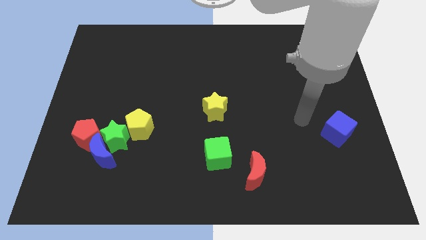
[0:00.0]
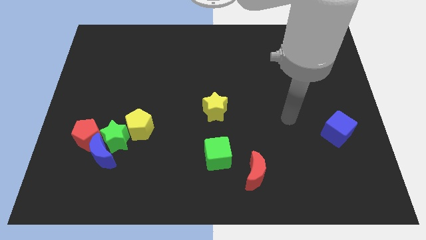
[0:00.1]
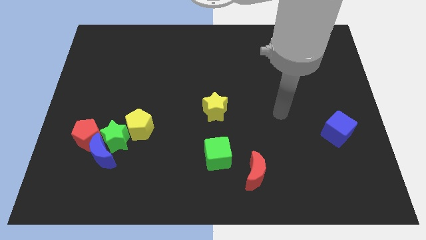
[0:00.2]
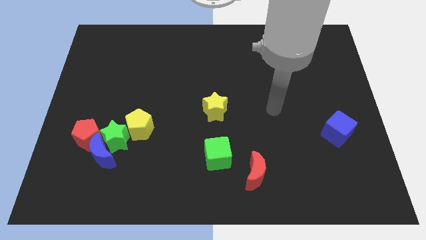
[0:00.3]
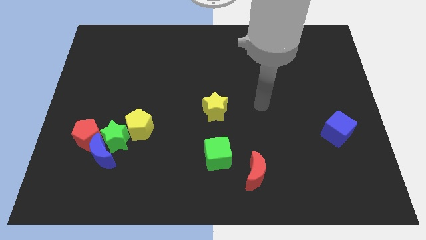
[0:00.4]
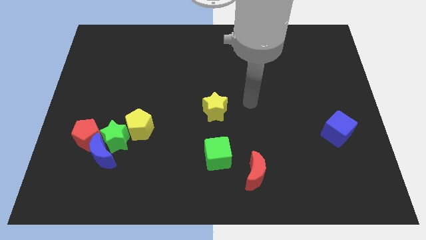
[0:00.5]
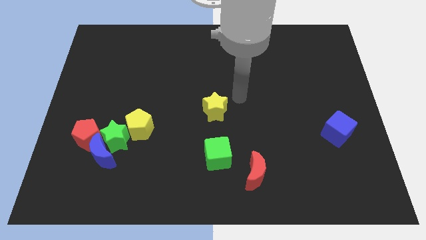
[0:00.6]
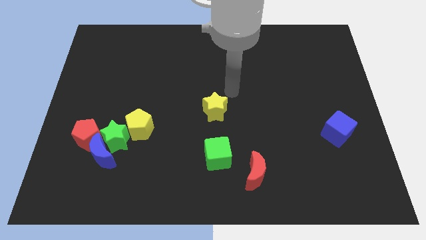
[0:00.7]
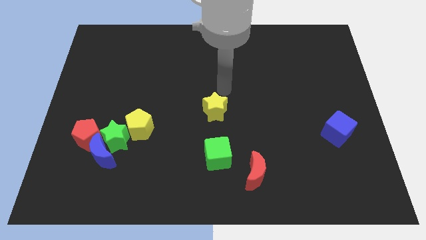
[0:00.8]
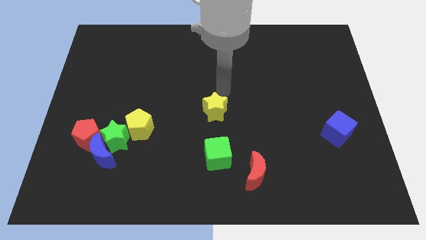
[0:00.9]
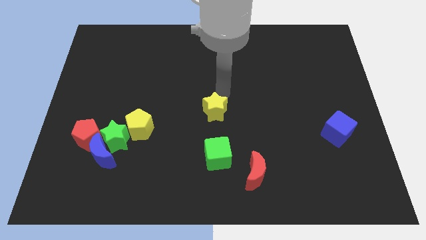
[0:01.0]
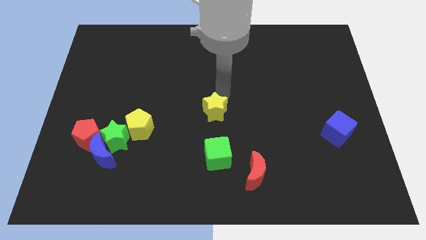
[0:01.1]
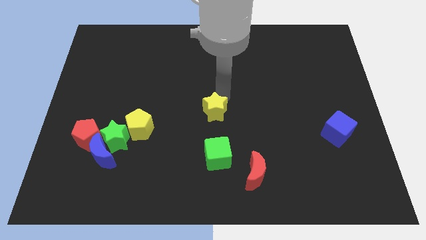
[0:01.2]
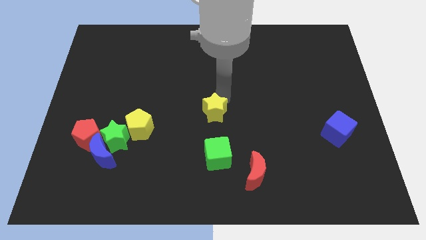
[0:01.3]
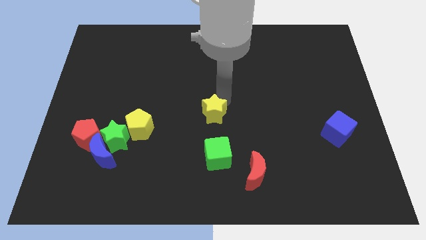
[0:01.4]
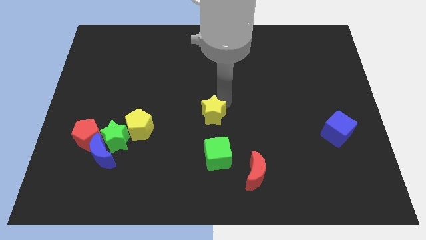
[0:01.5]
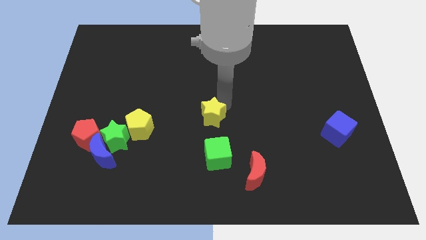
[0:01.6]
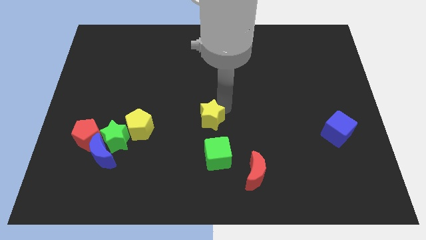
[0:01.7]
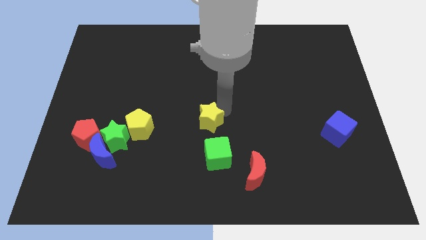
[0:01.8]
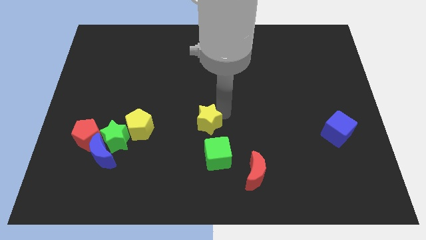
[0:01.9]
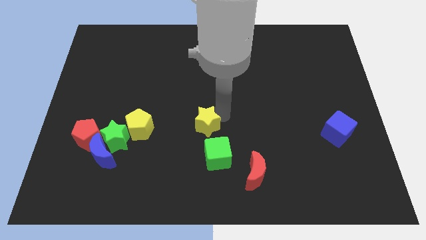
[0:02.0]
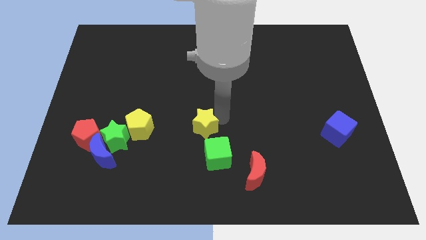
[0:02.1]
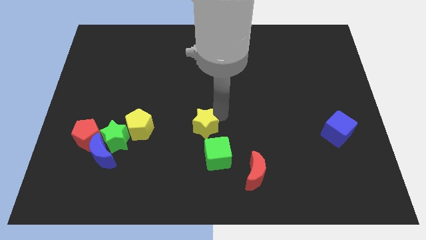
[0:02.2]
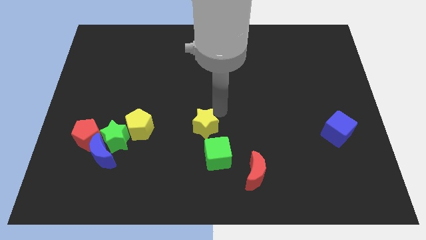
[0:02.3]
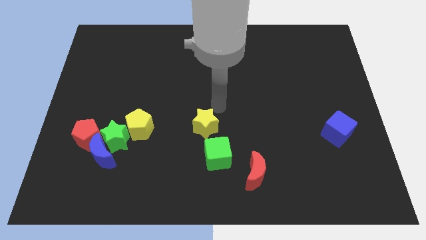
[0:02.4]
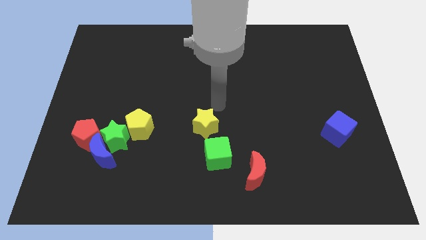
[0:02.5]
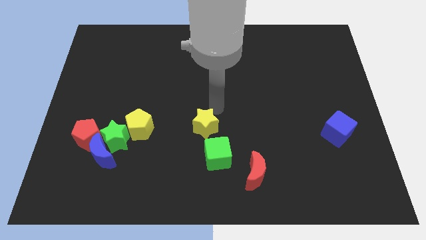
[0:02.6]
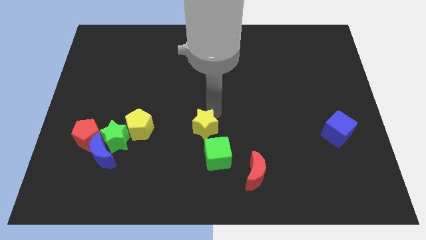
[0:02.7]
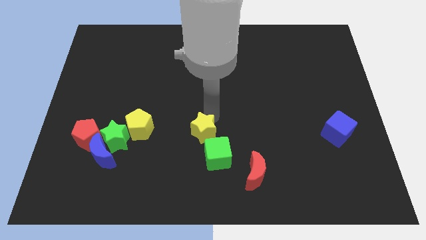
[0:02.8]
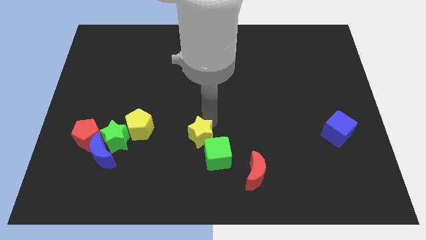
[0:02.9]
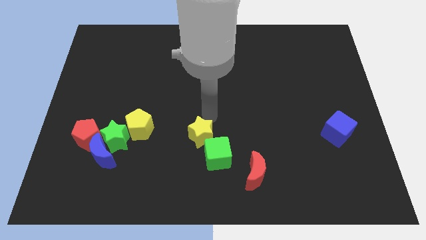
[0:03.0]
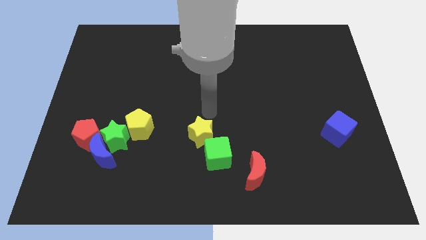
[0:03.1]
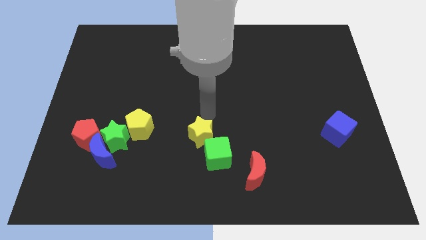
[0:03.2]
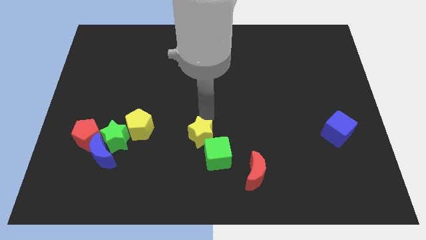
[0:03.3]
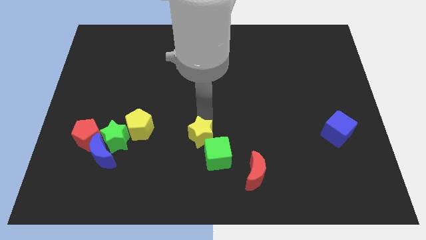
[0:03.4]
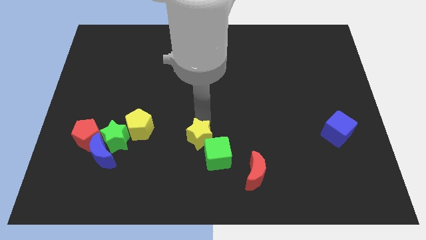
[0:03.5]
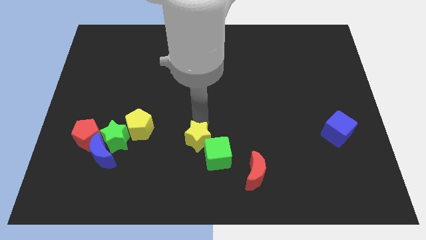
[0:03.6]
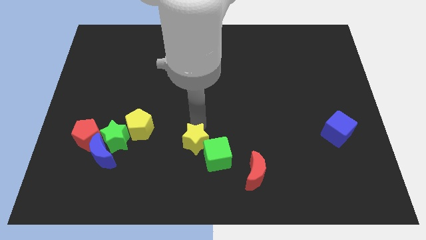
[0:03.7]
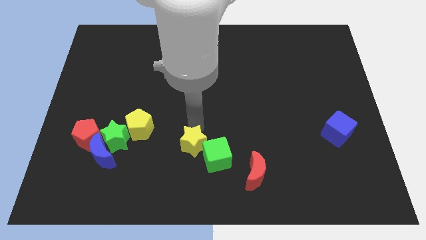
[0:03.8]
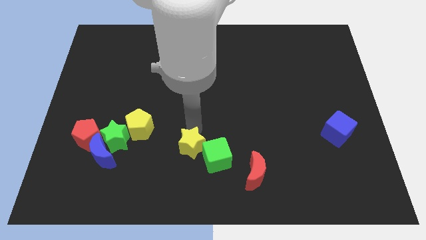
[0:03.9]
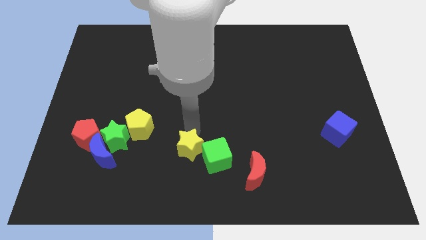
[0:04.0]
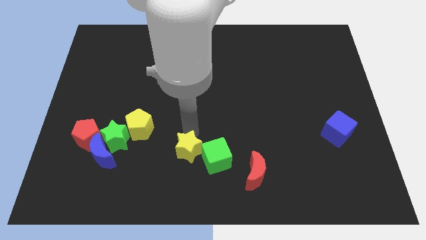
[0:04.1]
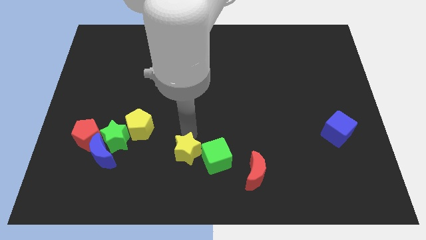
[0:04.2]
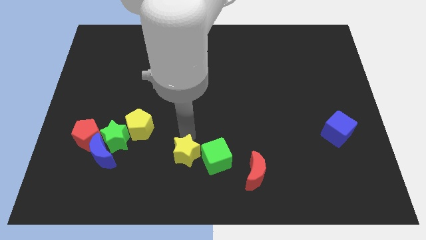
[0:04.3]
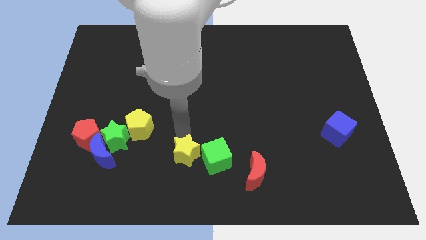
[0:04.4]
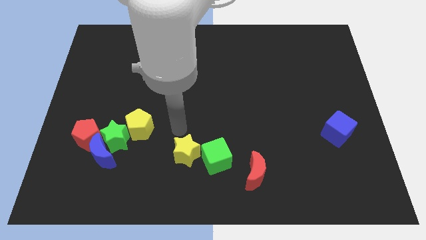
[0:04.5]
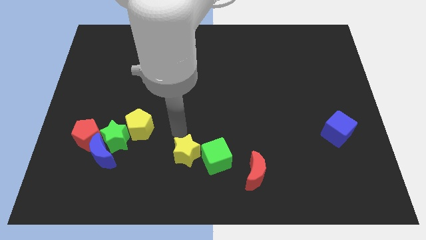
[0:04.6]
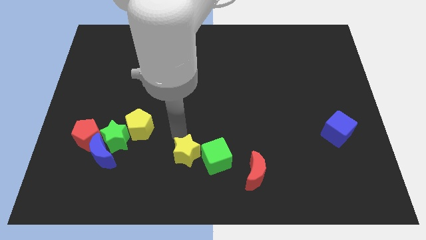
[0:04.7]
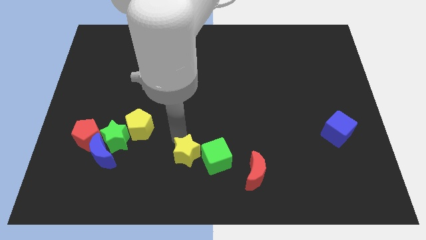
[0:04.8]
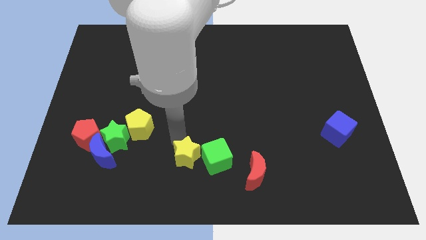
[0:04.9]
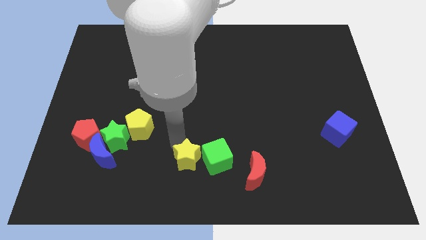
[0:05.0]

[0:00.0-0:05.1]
push the yellow star to the bottom

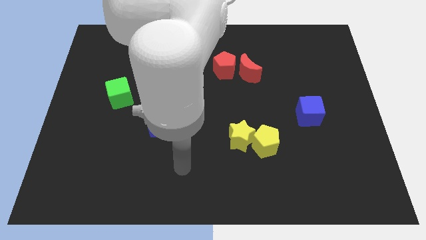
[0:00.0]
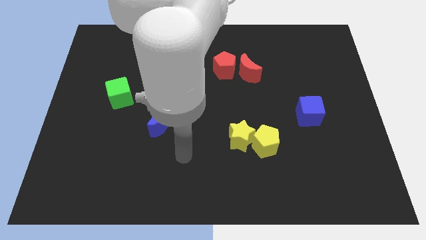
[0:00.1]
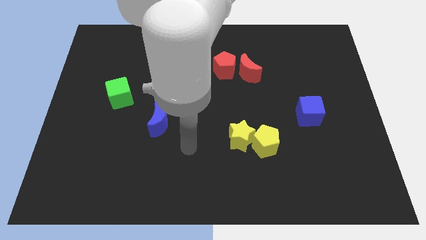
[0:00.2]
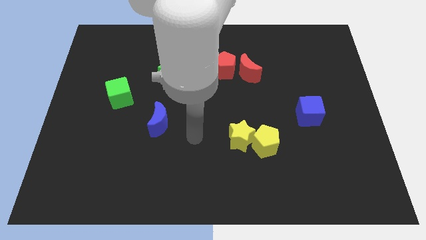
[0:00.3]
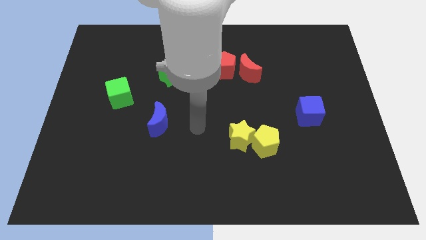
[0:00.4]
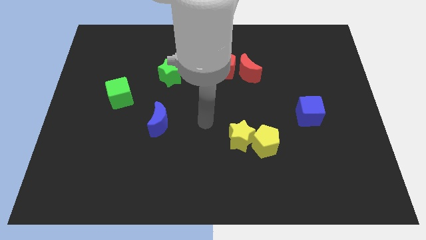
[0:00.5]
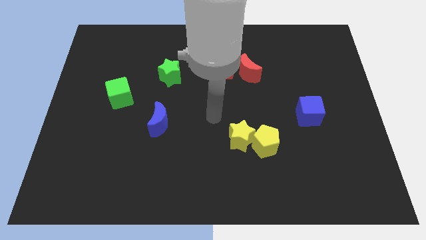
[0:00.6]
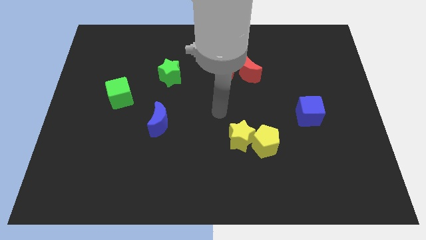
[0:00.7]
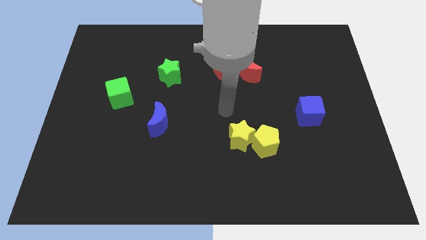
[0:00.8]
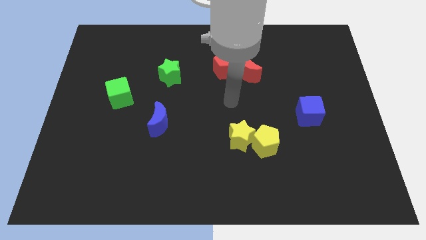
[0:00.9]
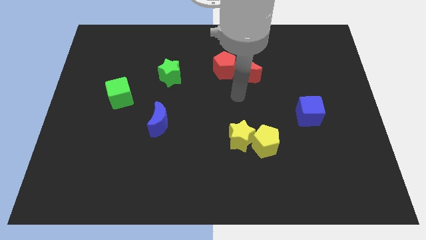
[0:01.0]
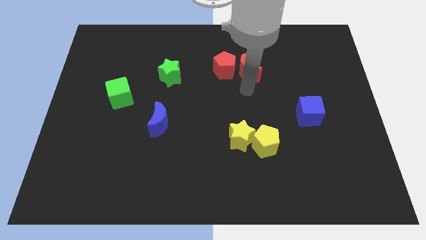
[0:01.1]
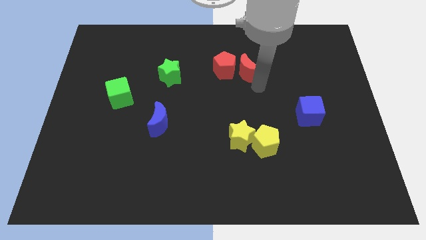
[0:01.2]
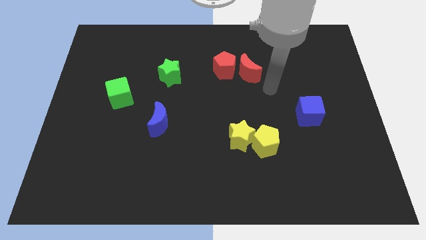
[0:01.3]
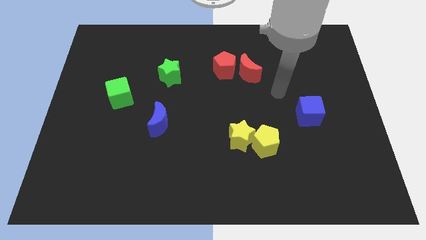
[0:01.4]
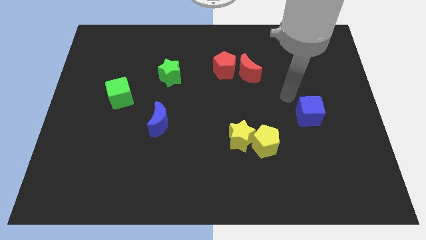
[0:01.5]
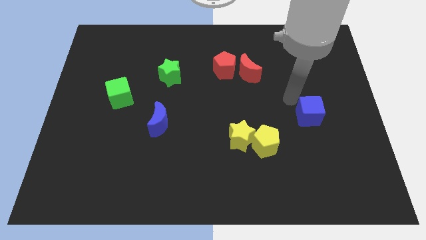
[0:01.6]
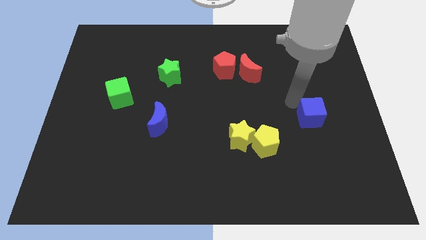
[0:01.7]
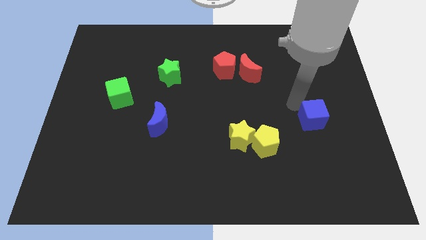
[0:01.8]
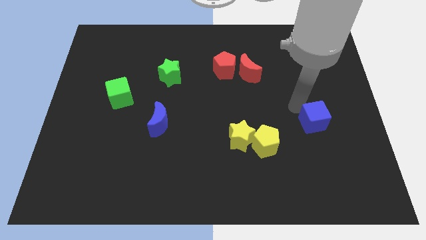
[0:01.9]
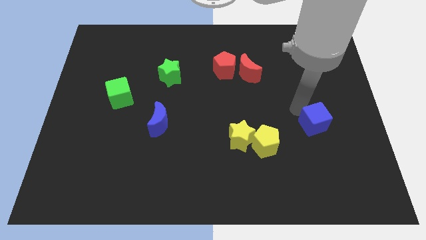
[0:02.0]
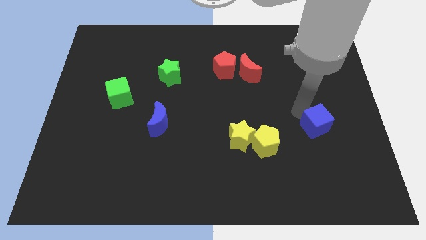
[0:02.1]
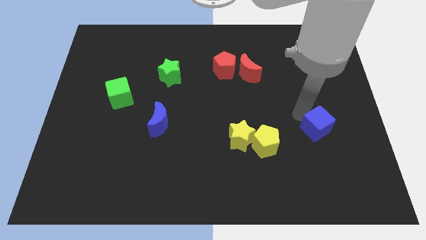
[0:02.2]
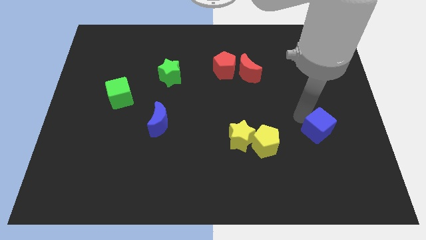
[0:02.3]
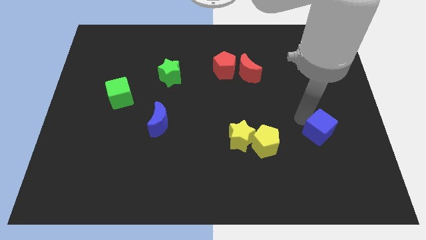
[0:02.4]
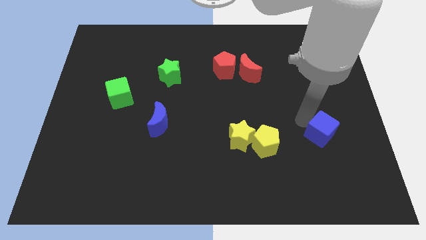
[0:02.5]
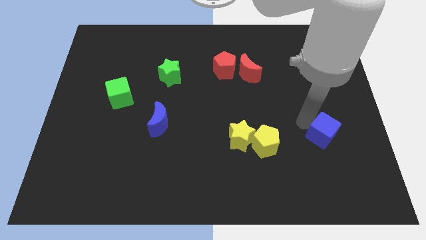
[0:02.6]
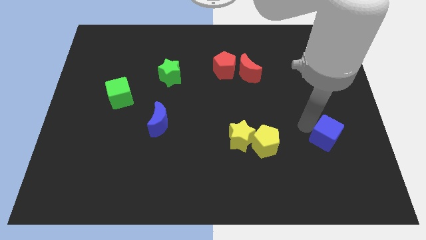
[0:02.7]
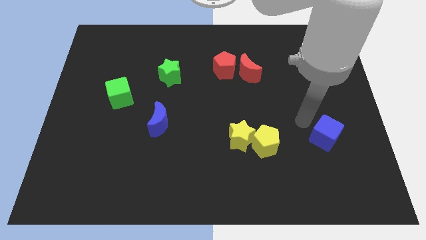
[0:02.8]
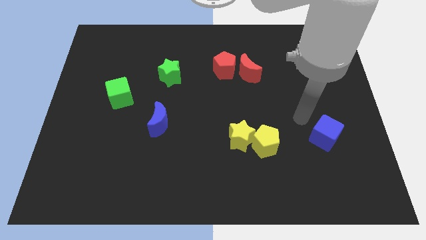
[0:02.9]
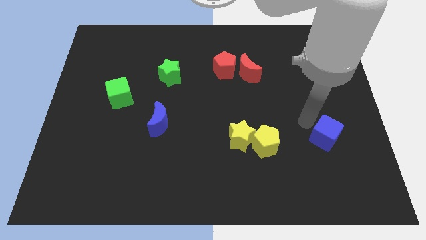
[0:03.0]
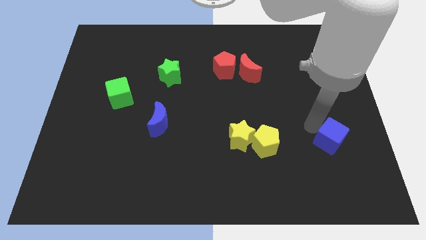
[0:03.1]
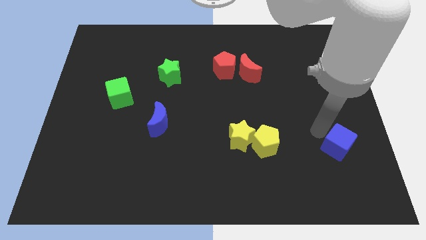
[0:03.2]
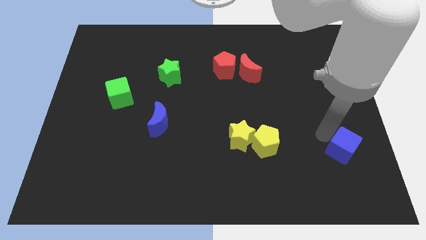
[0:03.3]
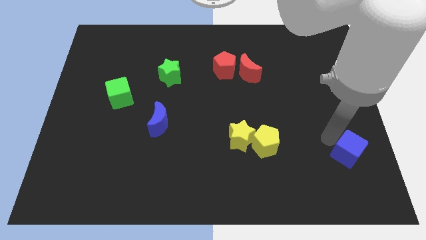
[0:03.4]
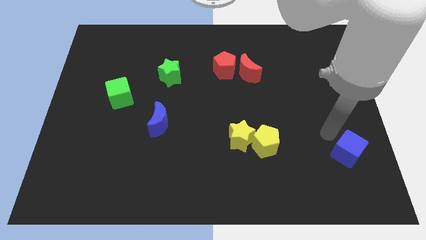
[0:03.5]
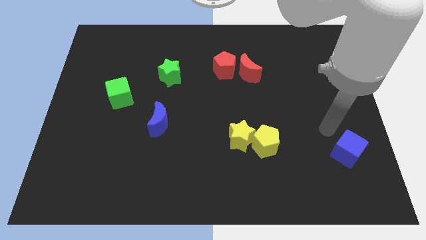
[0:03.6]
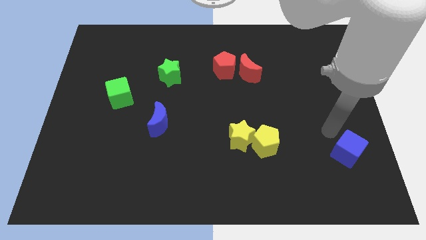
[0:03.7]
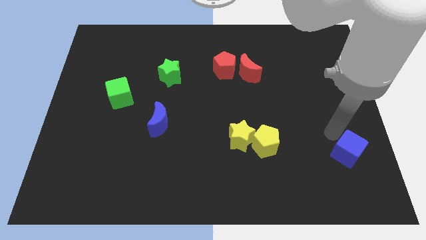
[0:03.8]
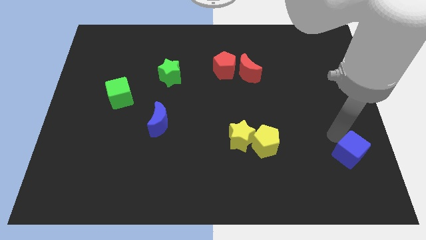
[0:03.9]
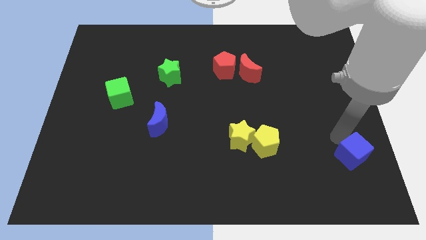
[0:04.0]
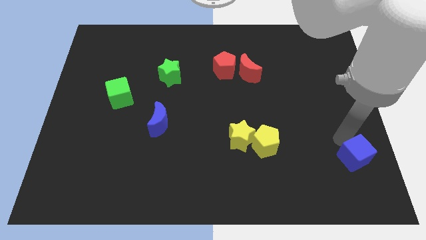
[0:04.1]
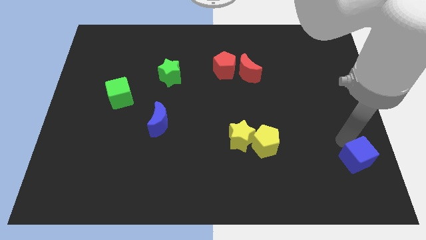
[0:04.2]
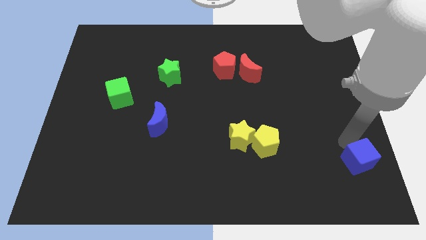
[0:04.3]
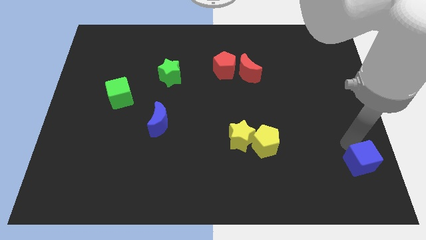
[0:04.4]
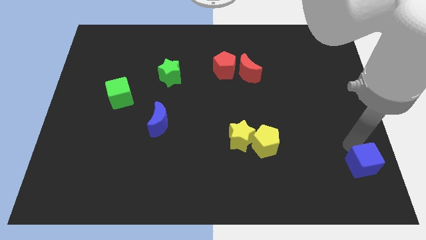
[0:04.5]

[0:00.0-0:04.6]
move the blue cube to the bottom right corner
